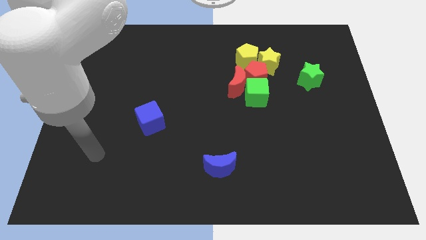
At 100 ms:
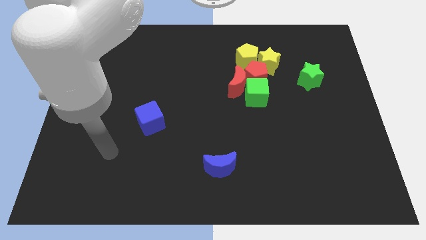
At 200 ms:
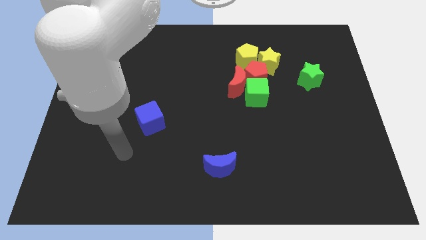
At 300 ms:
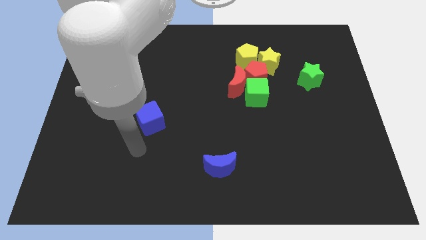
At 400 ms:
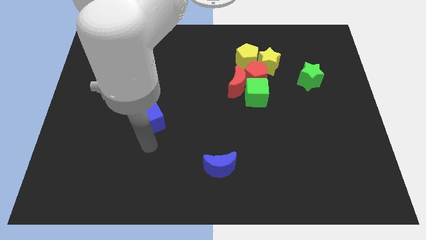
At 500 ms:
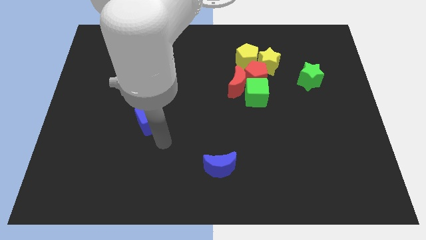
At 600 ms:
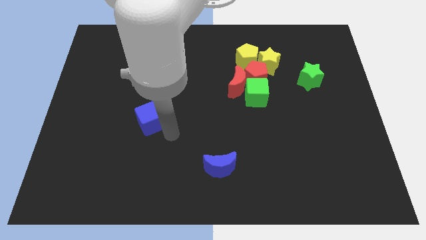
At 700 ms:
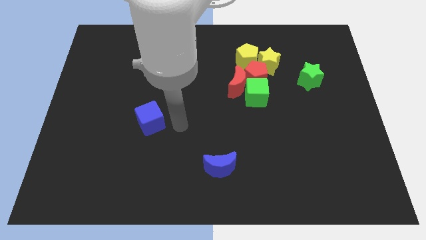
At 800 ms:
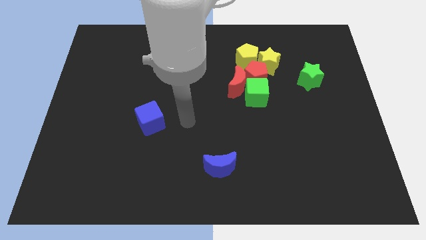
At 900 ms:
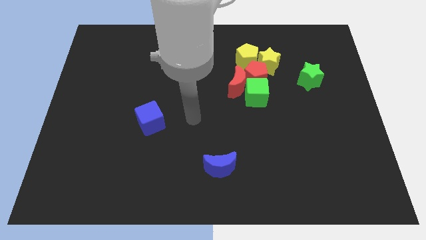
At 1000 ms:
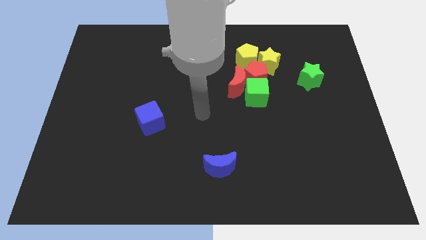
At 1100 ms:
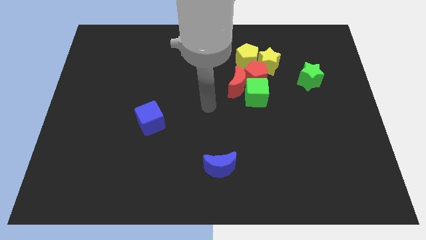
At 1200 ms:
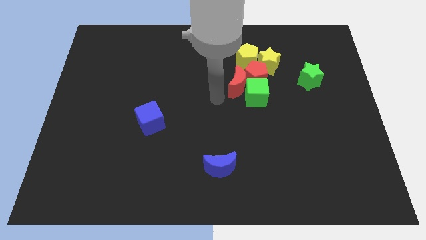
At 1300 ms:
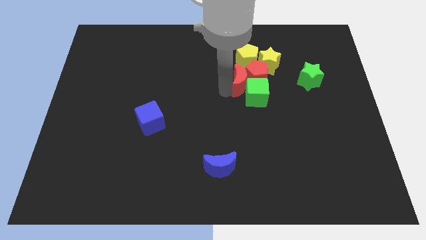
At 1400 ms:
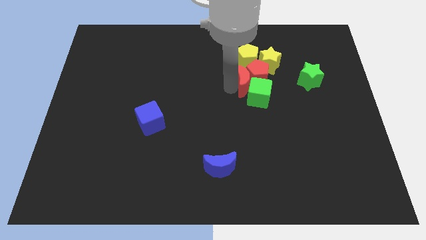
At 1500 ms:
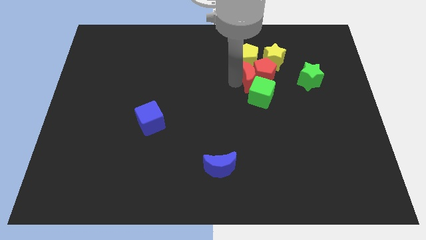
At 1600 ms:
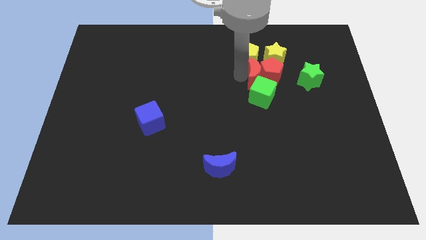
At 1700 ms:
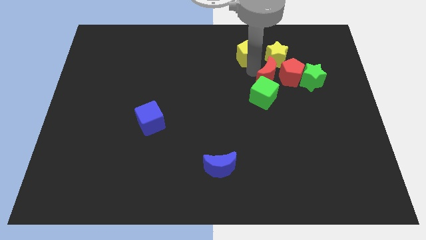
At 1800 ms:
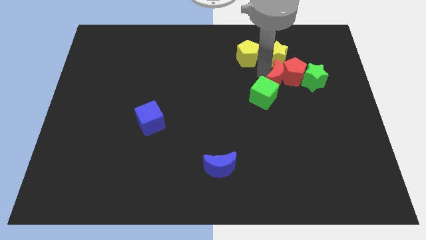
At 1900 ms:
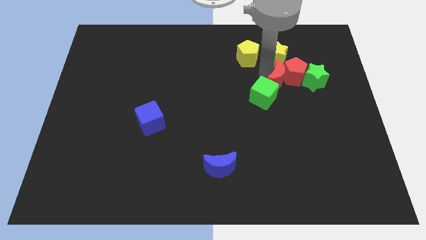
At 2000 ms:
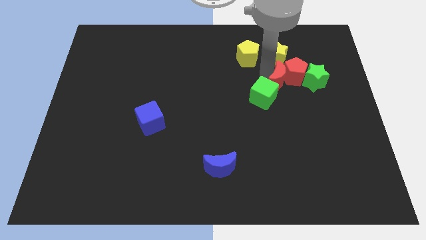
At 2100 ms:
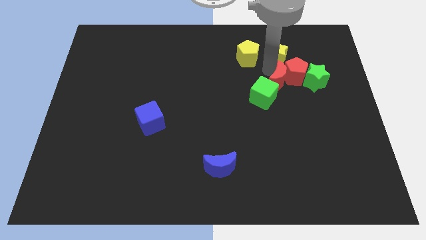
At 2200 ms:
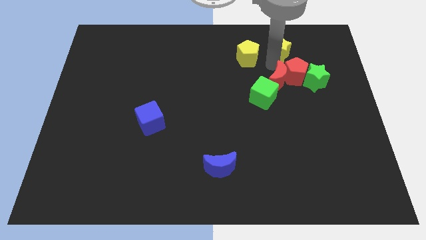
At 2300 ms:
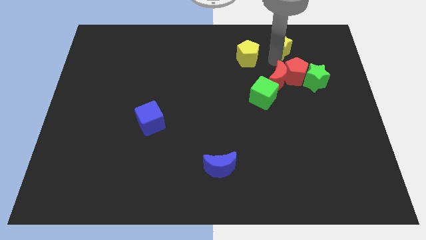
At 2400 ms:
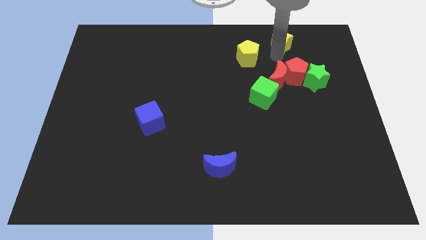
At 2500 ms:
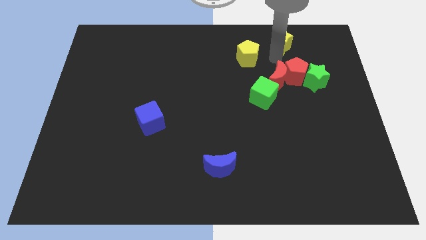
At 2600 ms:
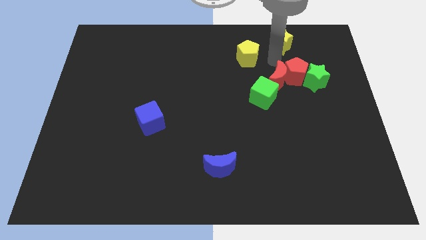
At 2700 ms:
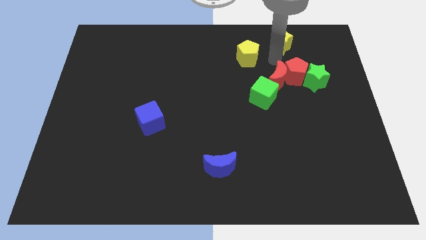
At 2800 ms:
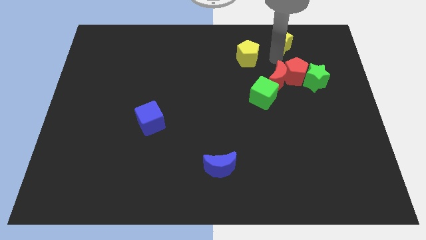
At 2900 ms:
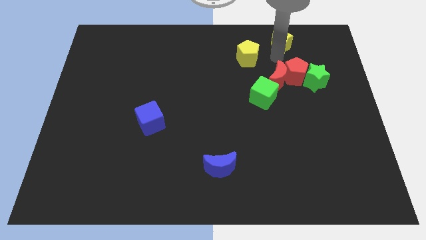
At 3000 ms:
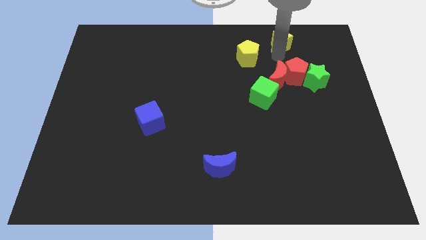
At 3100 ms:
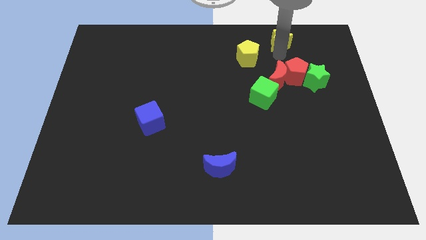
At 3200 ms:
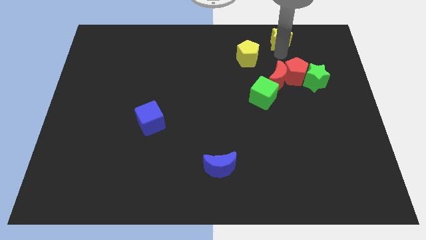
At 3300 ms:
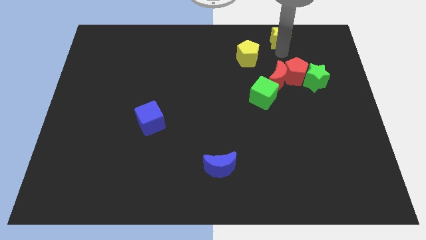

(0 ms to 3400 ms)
move the yellow star away from the yellow pentagon and red pentagon

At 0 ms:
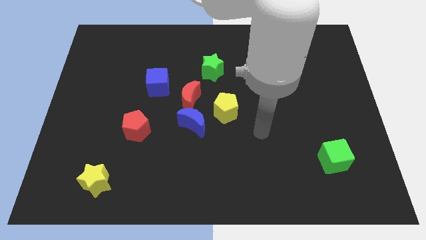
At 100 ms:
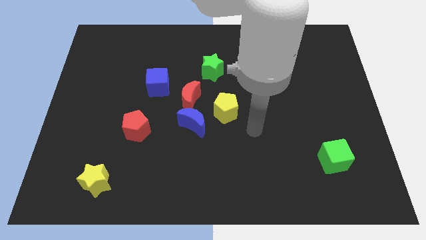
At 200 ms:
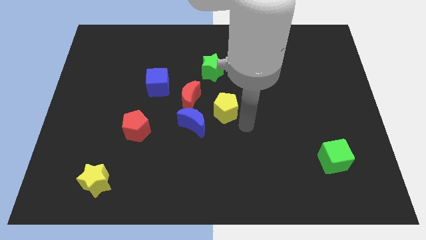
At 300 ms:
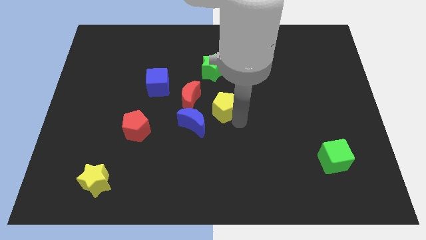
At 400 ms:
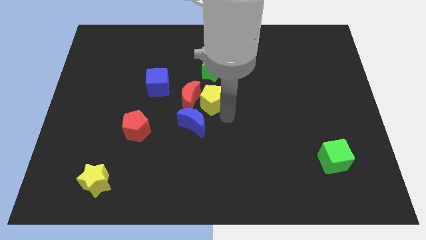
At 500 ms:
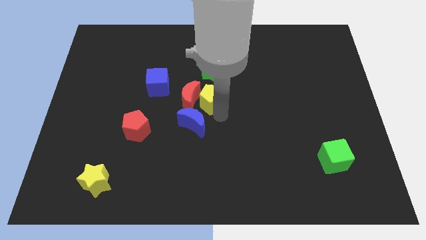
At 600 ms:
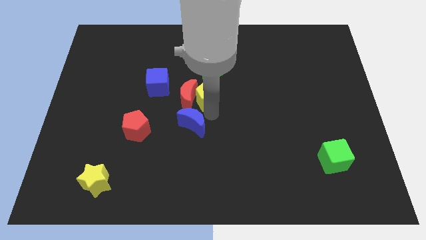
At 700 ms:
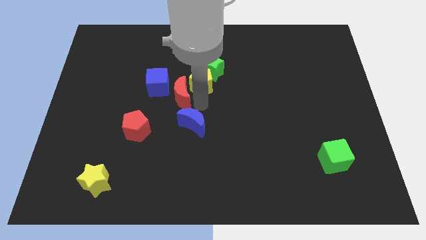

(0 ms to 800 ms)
move the blue moon away from the red moon and yellow pentagon

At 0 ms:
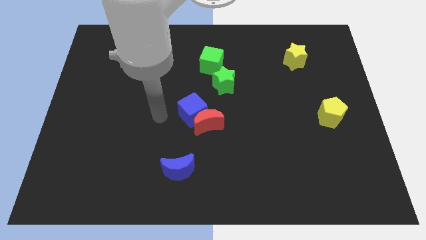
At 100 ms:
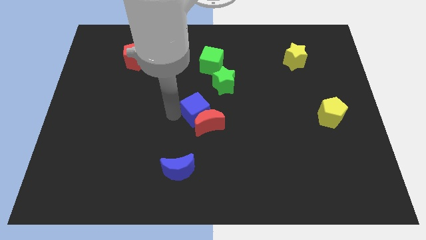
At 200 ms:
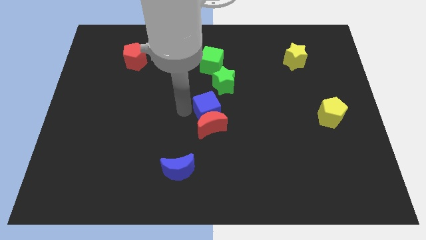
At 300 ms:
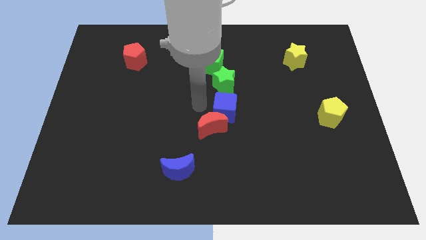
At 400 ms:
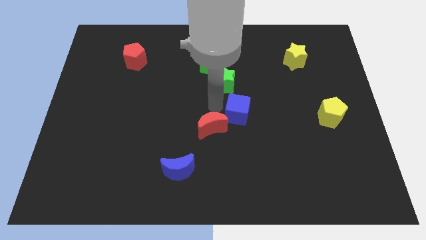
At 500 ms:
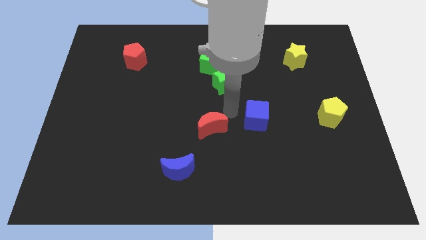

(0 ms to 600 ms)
separate the red moon from the blue cube

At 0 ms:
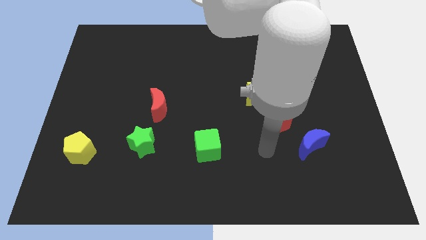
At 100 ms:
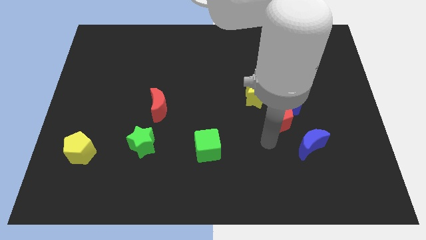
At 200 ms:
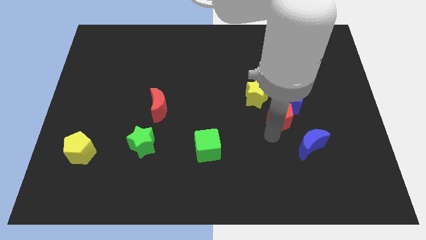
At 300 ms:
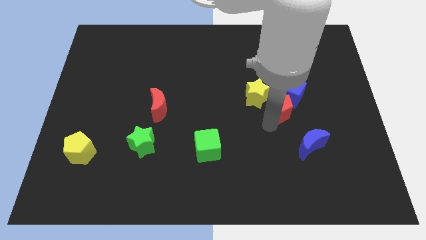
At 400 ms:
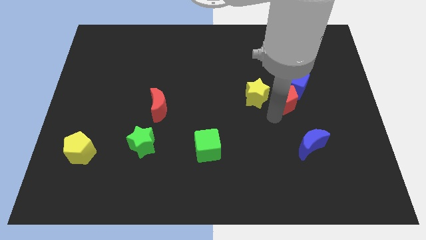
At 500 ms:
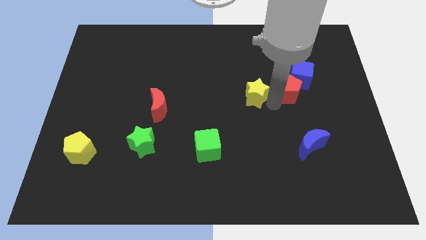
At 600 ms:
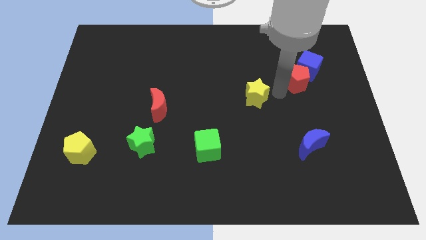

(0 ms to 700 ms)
move the blue cube away from the red pentagon and yellow star

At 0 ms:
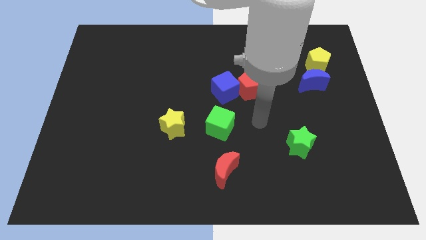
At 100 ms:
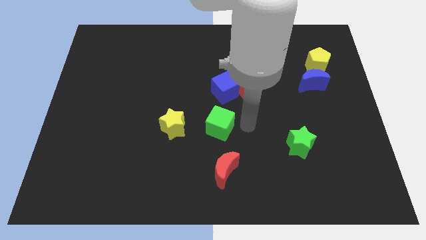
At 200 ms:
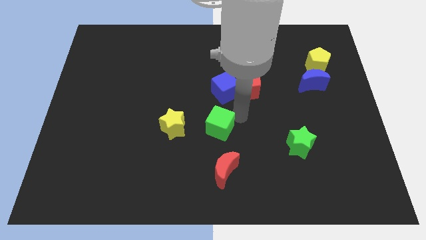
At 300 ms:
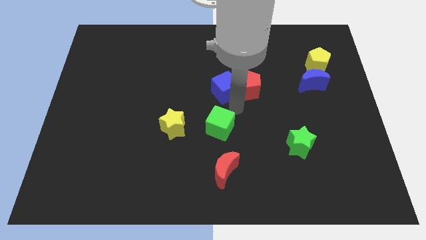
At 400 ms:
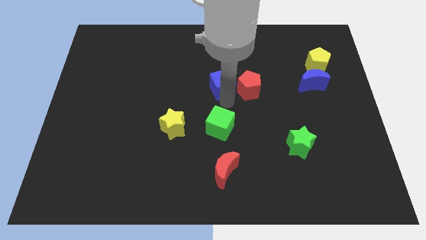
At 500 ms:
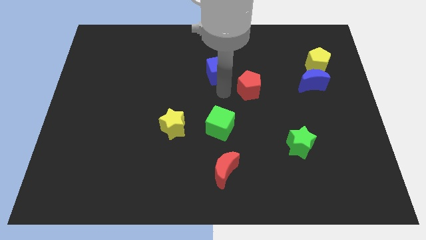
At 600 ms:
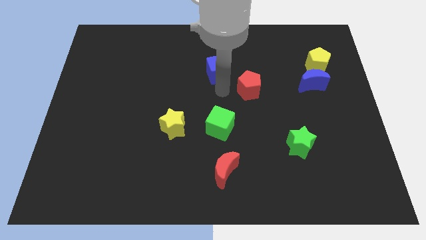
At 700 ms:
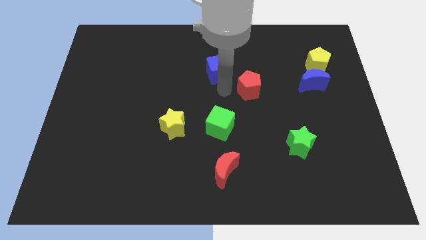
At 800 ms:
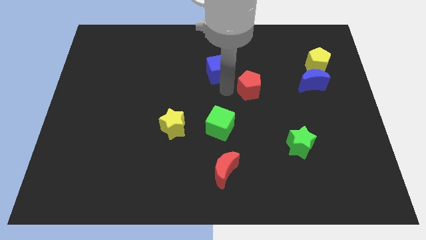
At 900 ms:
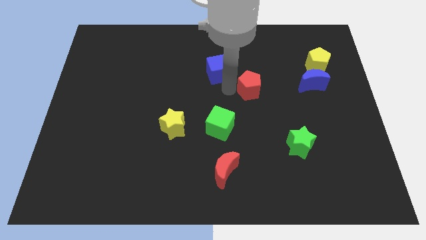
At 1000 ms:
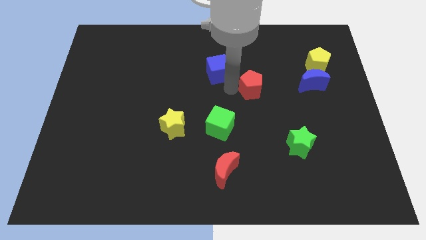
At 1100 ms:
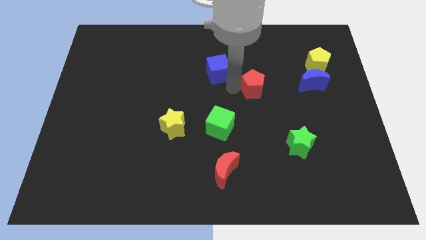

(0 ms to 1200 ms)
move the red pentagon away from the blue cube

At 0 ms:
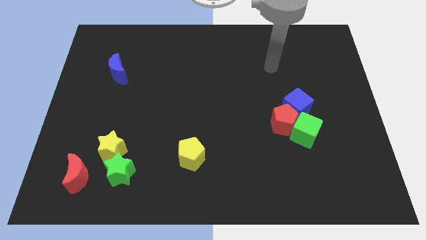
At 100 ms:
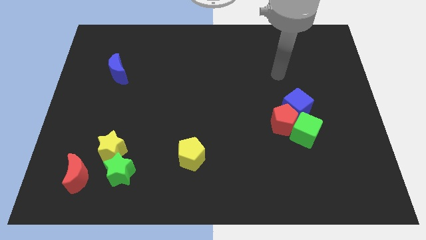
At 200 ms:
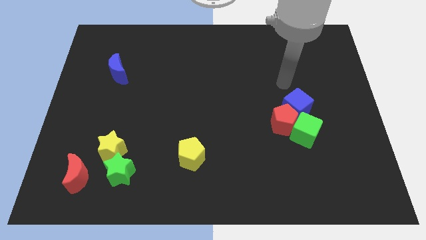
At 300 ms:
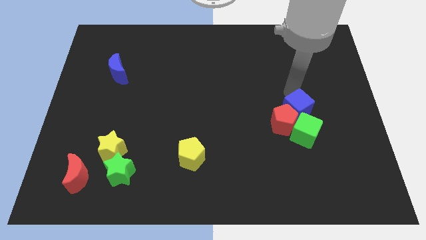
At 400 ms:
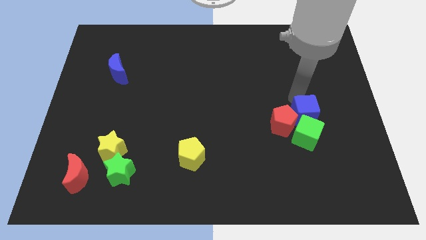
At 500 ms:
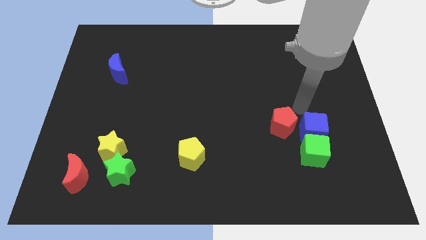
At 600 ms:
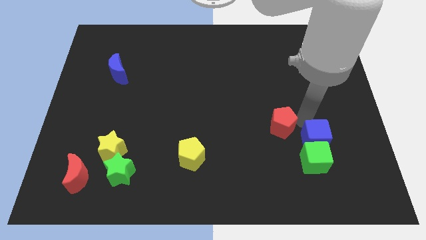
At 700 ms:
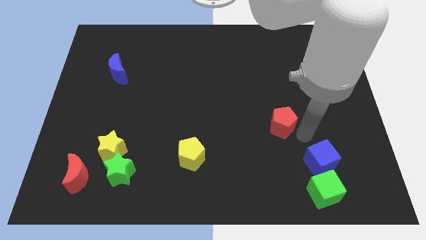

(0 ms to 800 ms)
pull the red pentagon apart from the green cube and blue cube

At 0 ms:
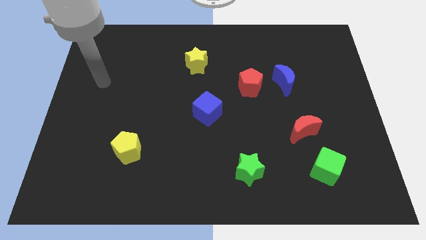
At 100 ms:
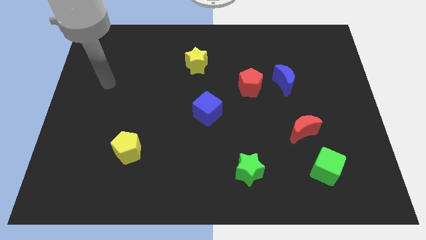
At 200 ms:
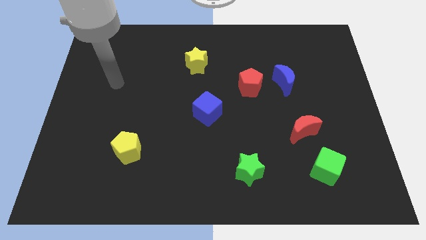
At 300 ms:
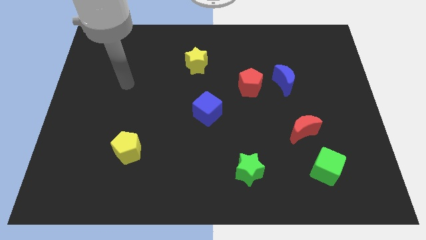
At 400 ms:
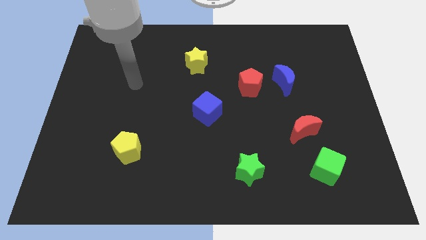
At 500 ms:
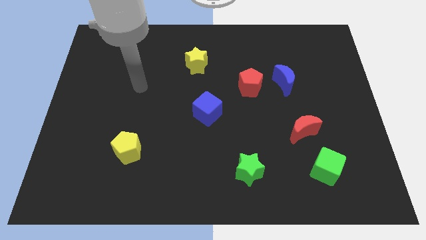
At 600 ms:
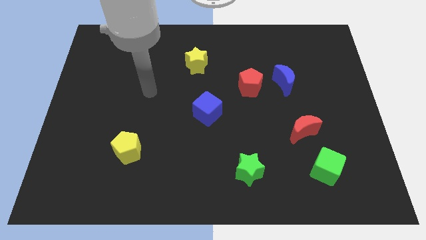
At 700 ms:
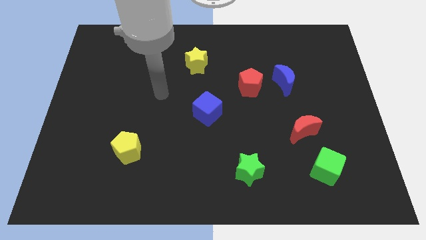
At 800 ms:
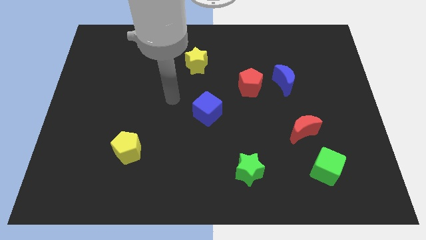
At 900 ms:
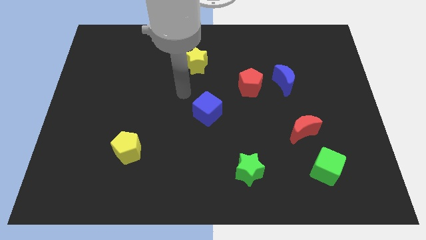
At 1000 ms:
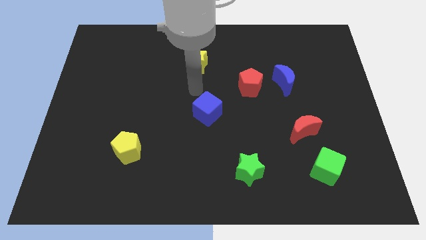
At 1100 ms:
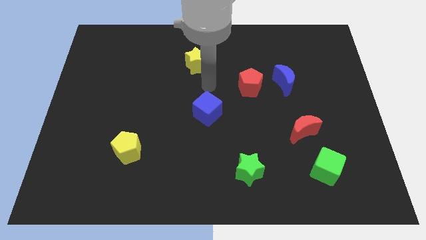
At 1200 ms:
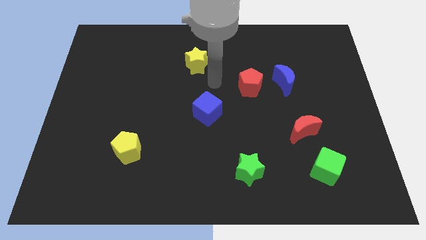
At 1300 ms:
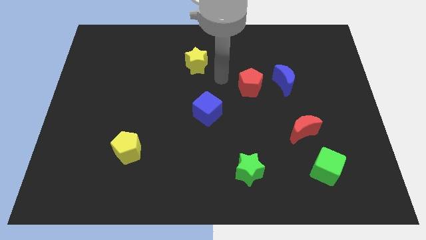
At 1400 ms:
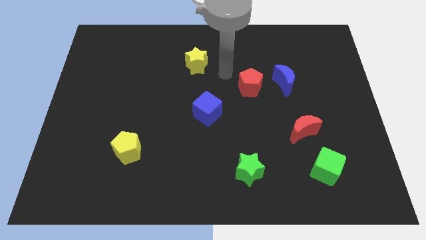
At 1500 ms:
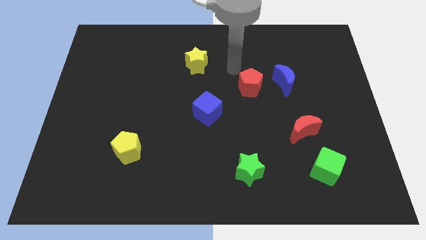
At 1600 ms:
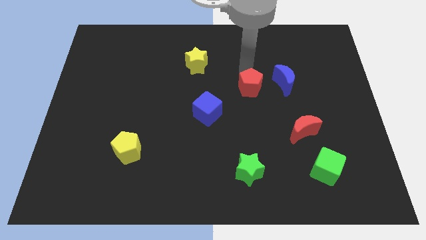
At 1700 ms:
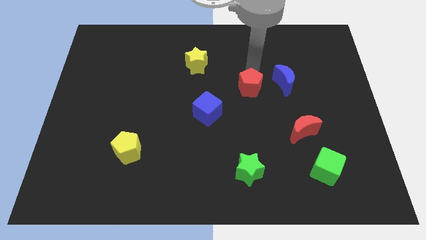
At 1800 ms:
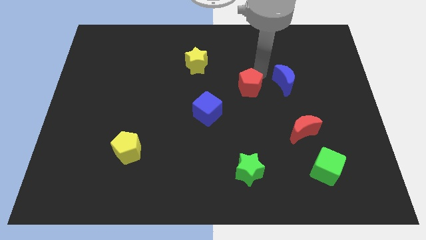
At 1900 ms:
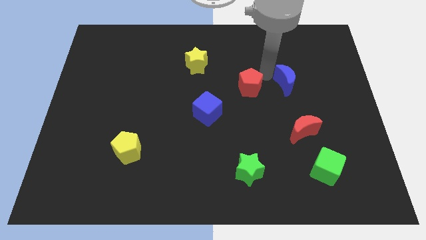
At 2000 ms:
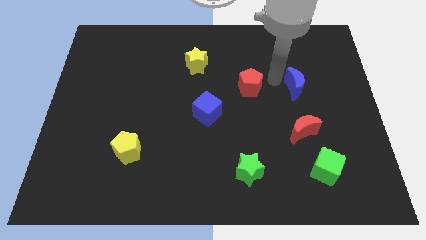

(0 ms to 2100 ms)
pull the red pentagon apart from the blue moon
